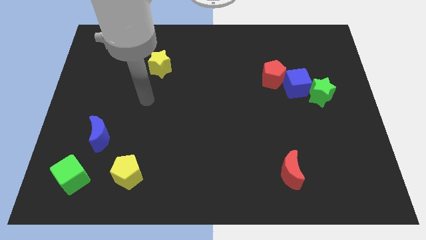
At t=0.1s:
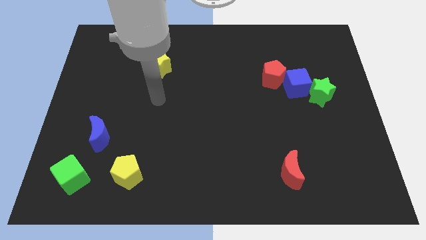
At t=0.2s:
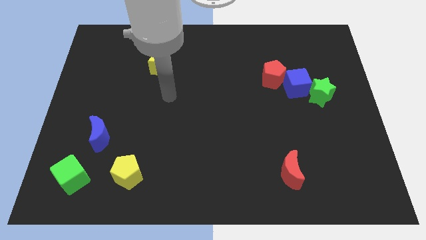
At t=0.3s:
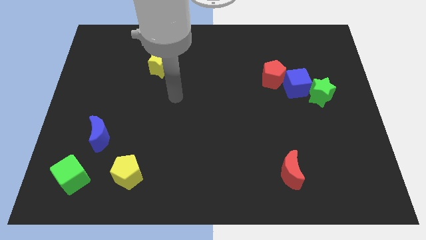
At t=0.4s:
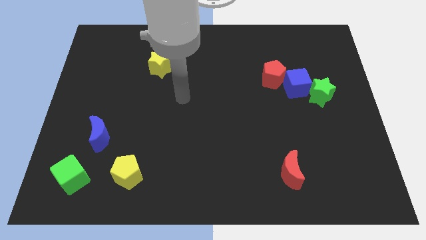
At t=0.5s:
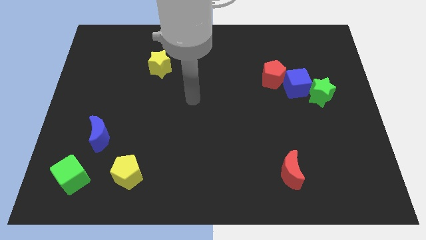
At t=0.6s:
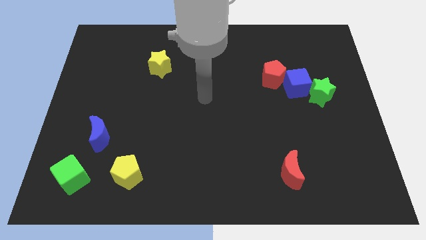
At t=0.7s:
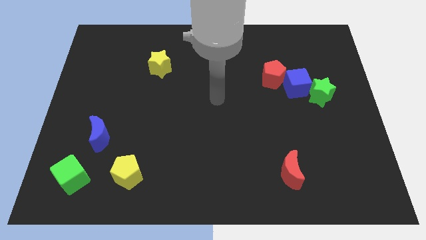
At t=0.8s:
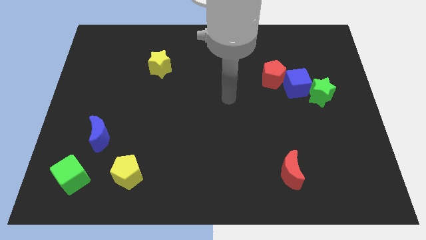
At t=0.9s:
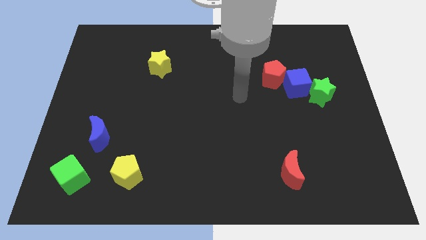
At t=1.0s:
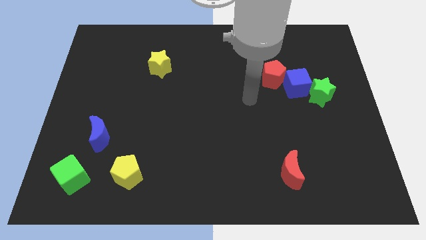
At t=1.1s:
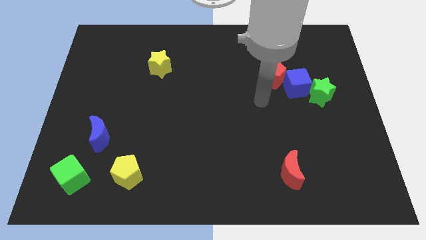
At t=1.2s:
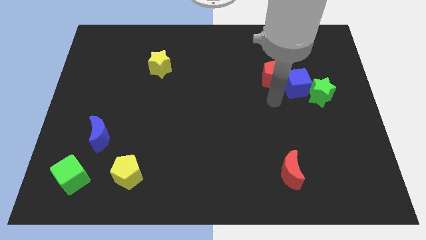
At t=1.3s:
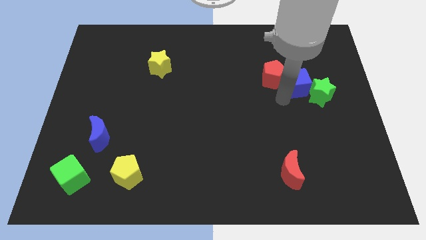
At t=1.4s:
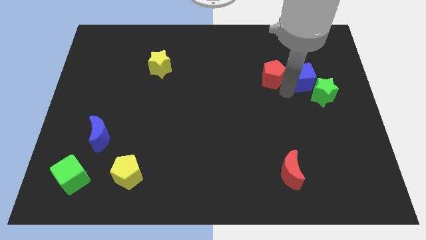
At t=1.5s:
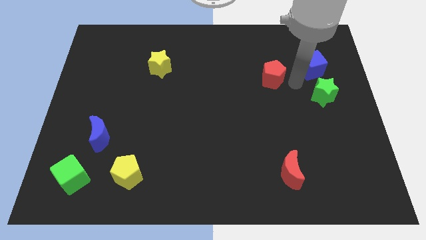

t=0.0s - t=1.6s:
move the red pentagon away from the blue cube

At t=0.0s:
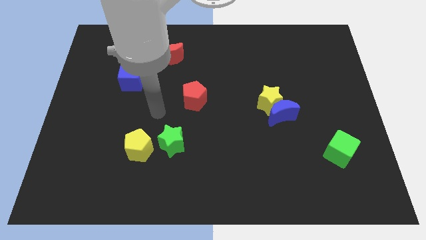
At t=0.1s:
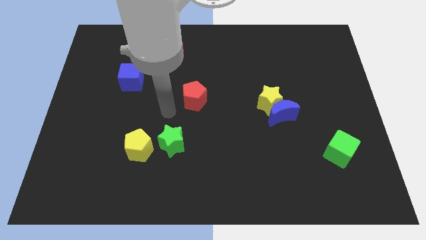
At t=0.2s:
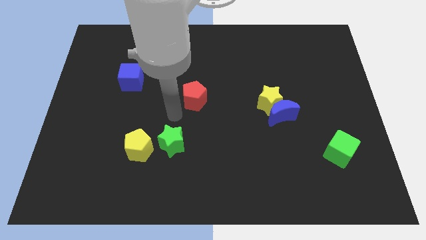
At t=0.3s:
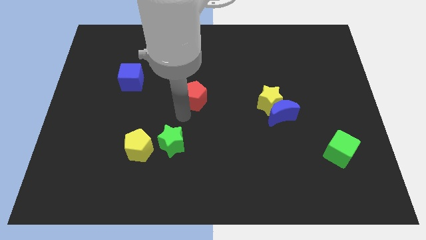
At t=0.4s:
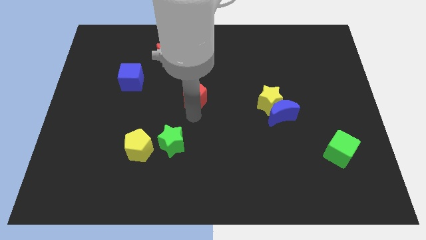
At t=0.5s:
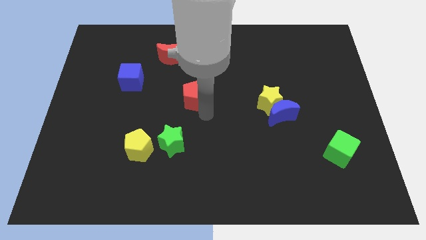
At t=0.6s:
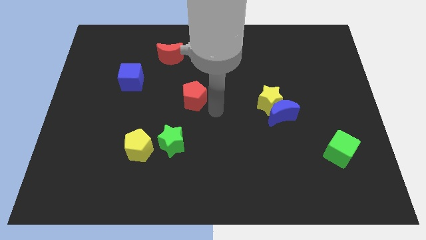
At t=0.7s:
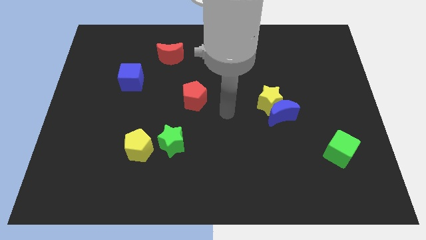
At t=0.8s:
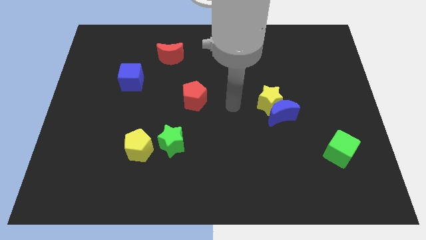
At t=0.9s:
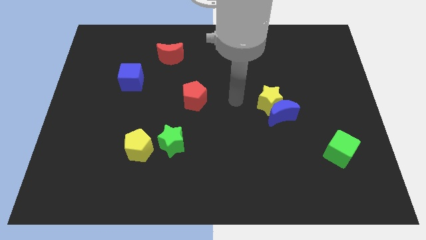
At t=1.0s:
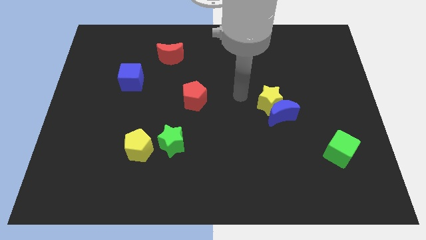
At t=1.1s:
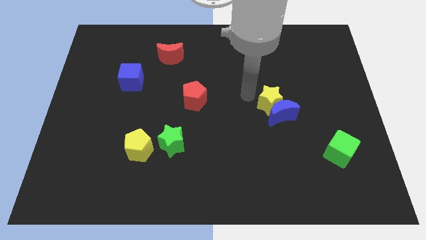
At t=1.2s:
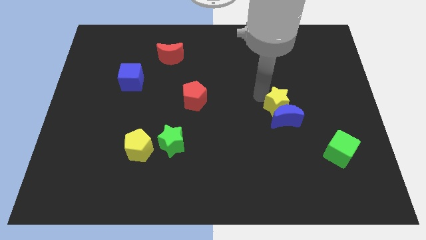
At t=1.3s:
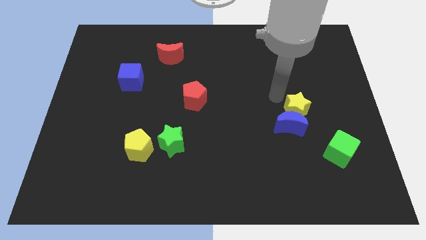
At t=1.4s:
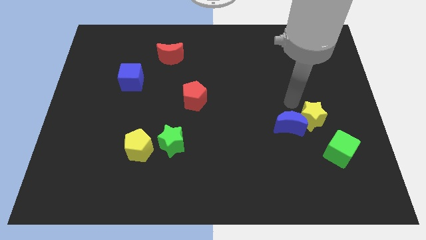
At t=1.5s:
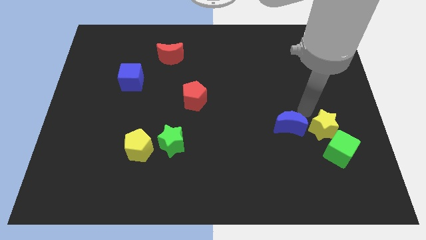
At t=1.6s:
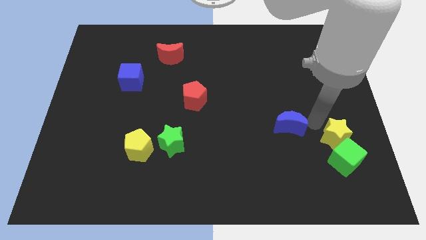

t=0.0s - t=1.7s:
separate the blue moon from the yellow star

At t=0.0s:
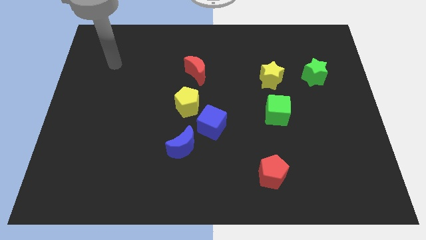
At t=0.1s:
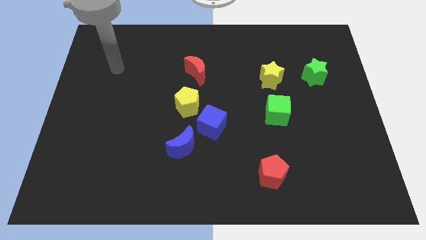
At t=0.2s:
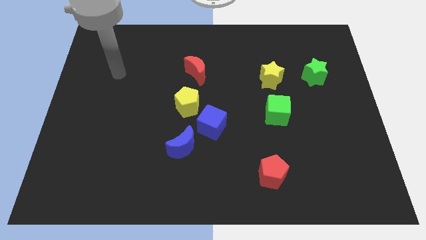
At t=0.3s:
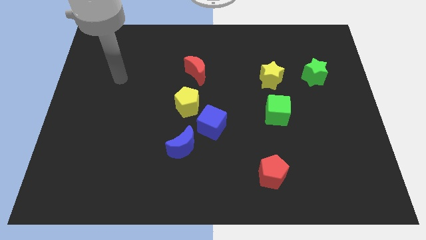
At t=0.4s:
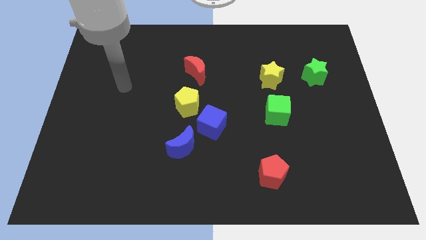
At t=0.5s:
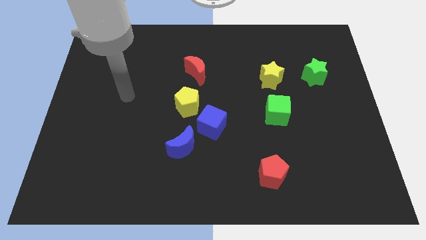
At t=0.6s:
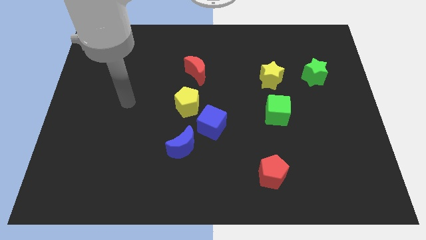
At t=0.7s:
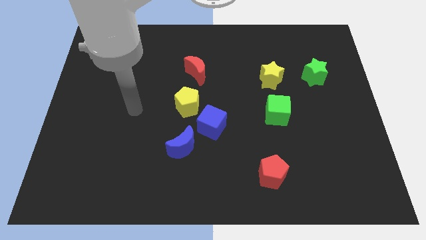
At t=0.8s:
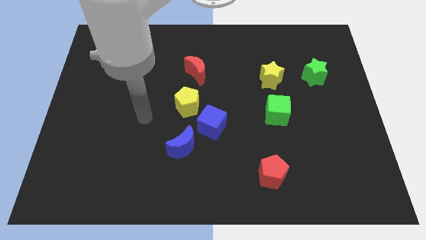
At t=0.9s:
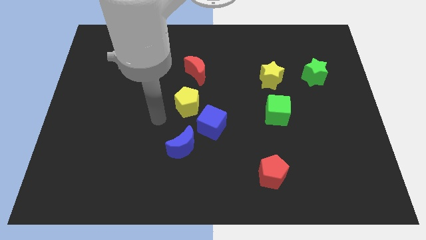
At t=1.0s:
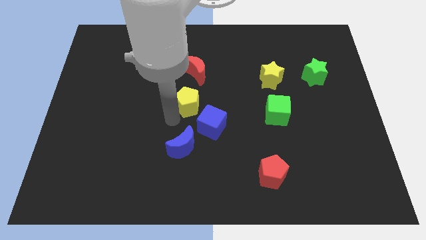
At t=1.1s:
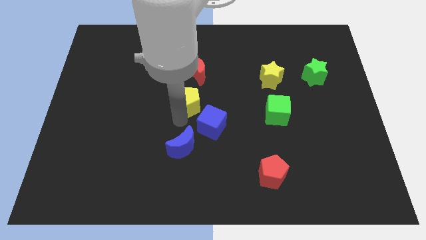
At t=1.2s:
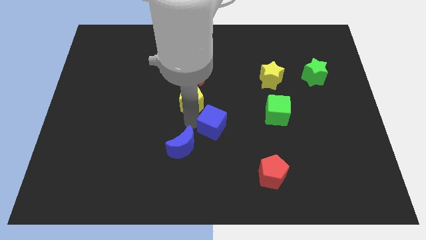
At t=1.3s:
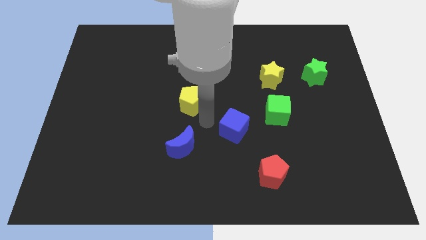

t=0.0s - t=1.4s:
pull the yellow pentagon apart from the blue cube

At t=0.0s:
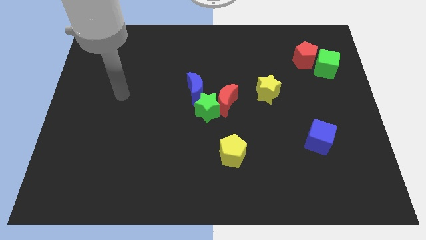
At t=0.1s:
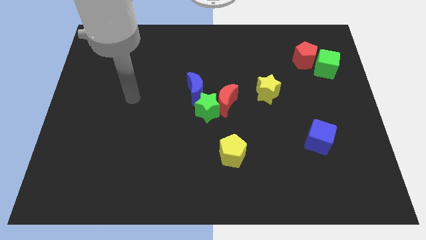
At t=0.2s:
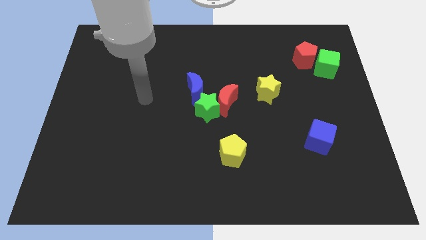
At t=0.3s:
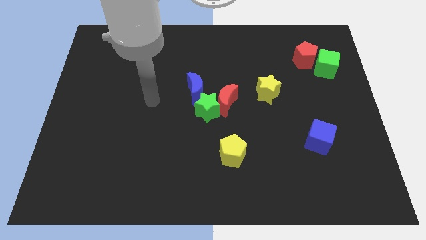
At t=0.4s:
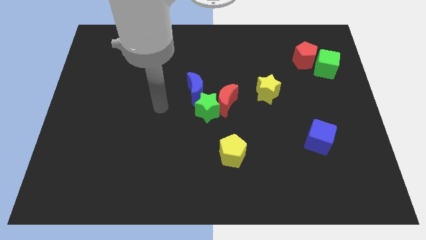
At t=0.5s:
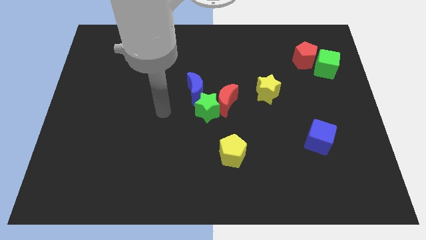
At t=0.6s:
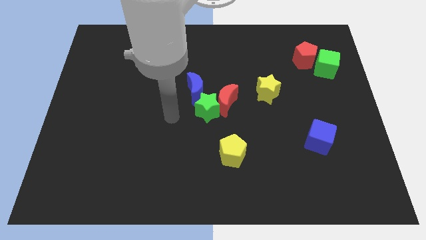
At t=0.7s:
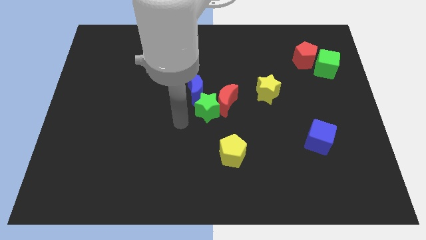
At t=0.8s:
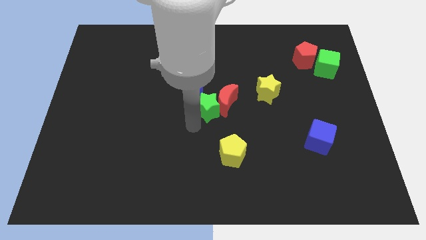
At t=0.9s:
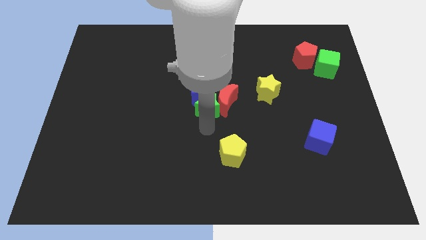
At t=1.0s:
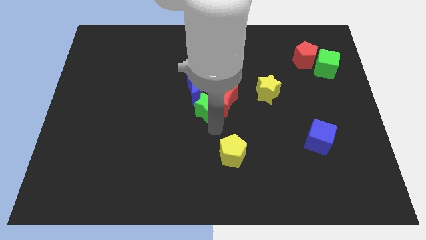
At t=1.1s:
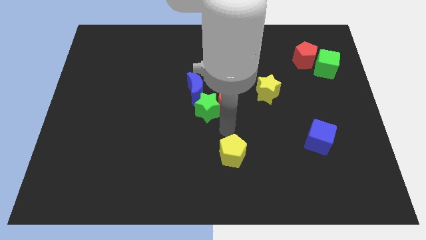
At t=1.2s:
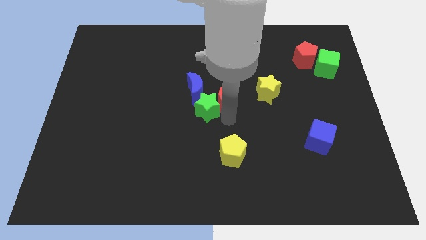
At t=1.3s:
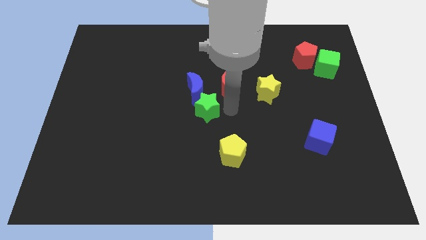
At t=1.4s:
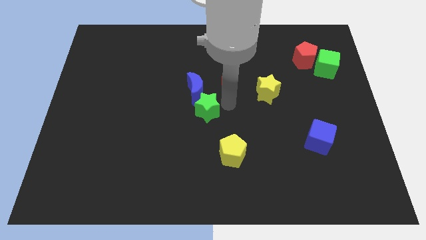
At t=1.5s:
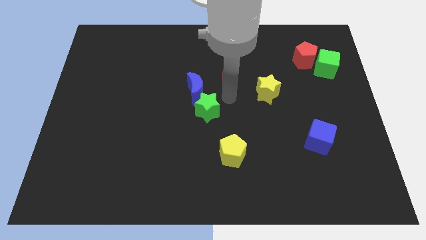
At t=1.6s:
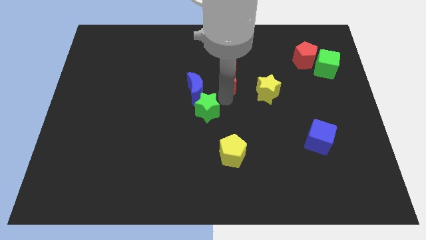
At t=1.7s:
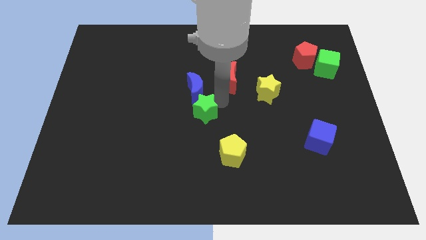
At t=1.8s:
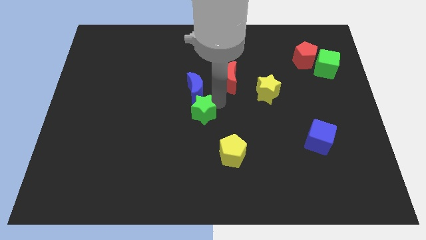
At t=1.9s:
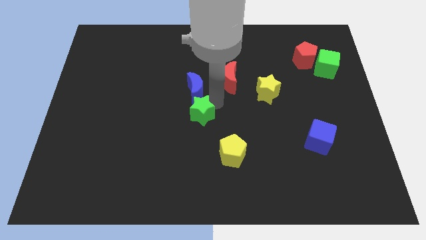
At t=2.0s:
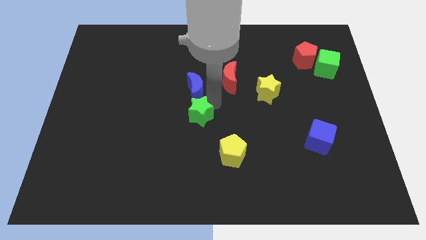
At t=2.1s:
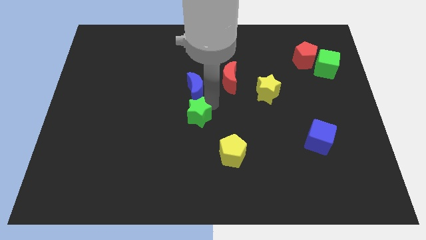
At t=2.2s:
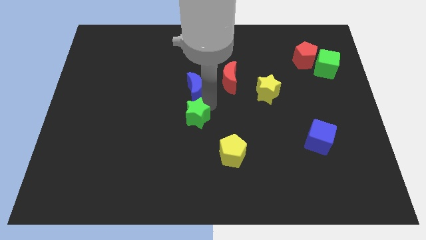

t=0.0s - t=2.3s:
separate the green star from the red moon and blue moon

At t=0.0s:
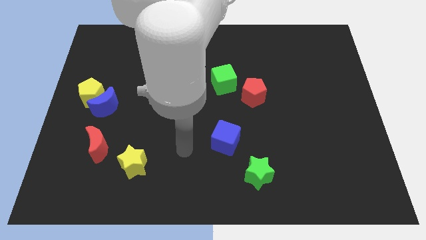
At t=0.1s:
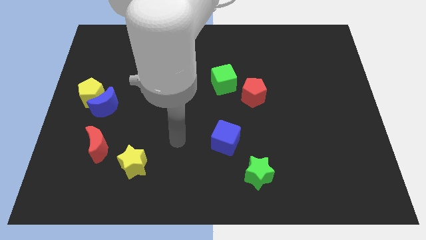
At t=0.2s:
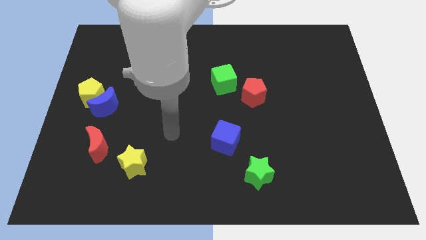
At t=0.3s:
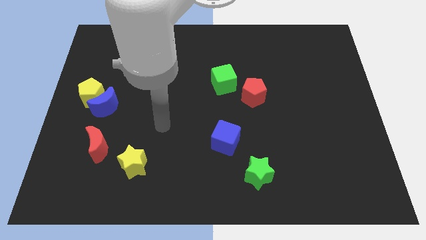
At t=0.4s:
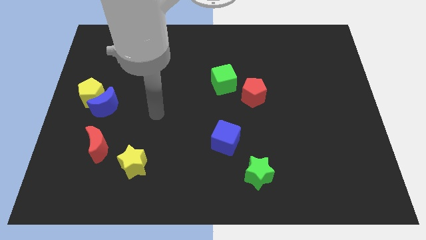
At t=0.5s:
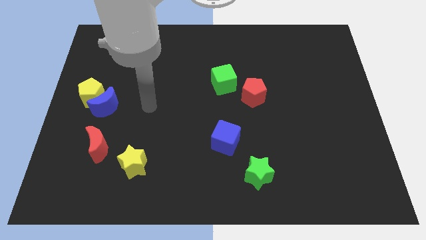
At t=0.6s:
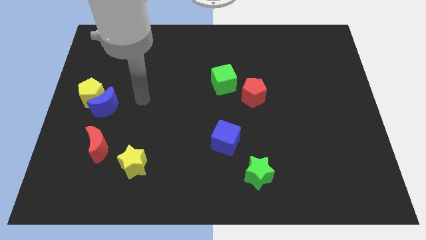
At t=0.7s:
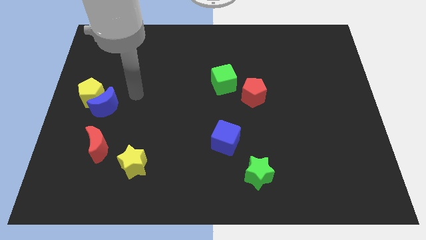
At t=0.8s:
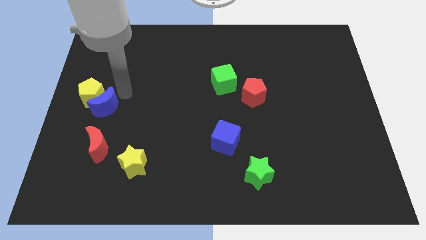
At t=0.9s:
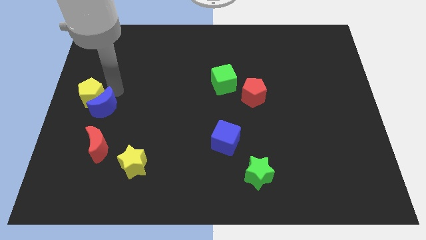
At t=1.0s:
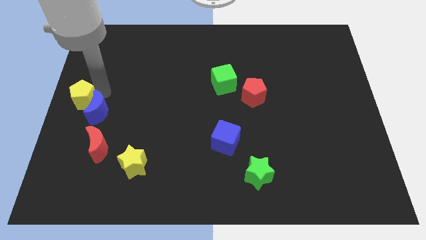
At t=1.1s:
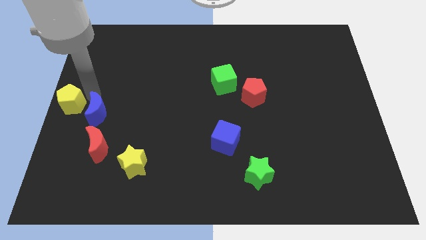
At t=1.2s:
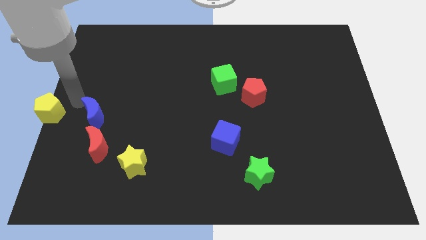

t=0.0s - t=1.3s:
separate the blue moon from the yellow pentagon

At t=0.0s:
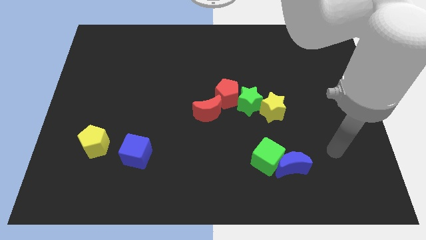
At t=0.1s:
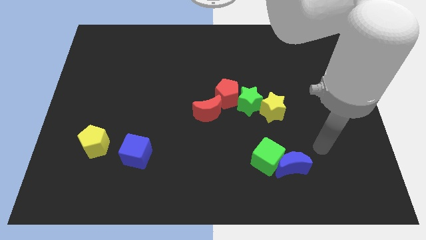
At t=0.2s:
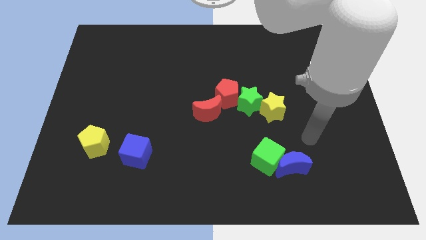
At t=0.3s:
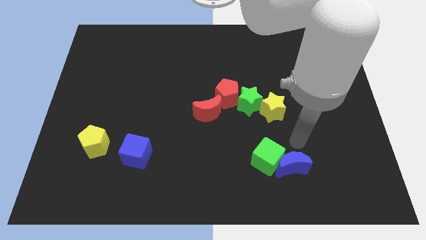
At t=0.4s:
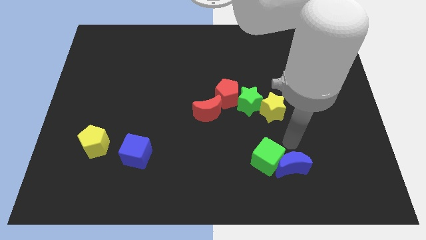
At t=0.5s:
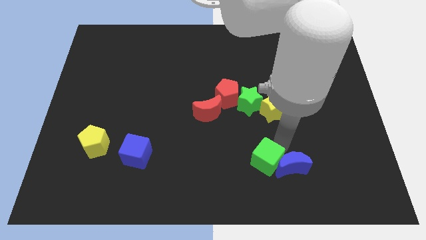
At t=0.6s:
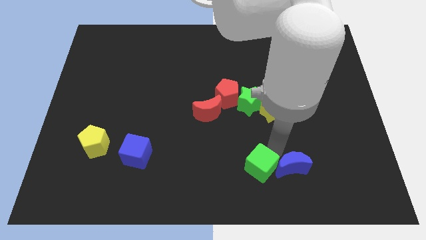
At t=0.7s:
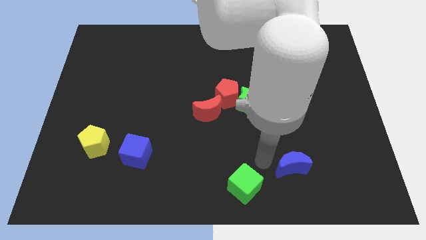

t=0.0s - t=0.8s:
move the blue moon away from the green cube

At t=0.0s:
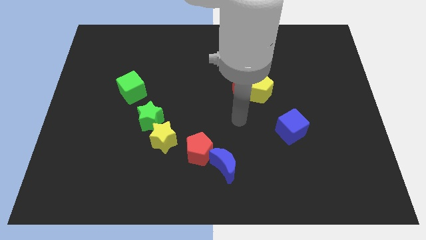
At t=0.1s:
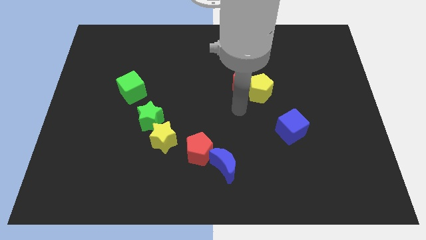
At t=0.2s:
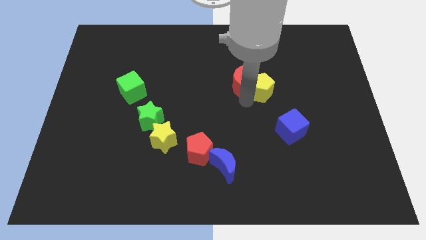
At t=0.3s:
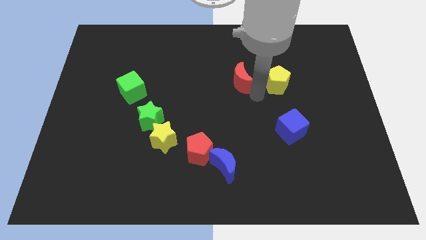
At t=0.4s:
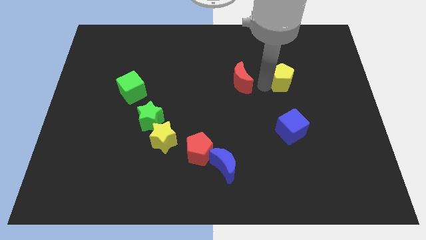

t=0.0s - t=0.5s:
separate the red moon from the yellow pentagon
